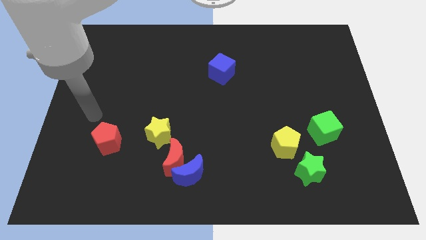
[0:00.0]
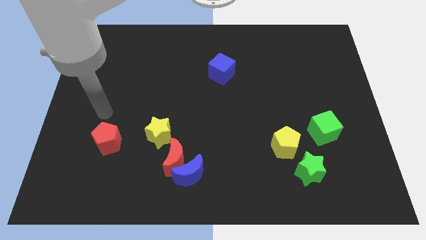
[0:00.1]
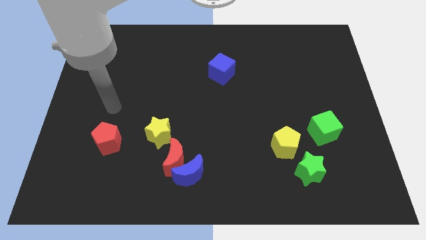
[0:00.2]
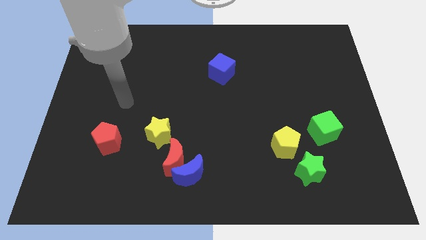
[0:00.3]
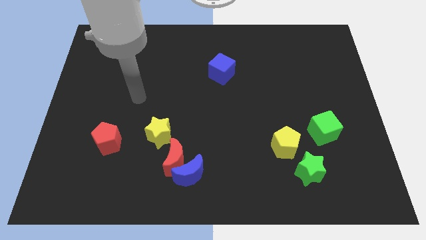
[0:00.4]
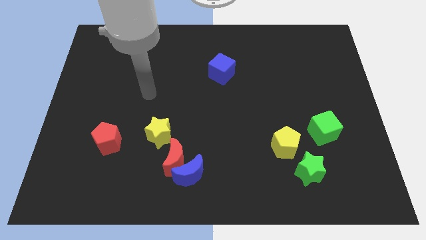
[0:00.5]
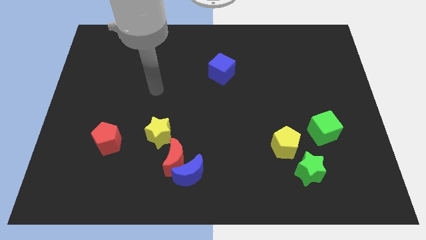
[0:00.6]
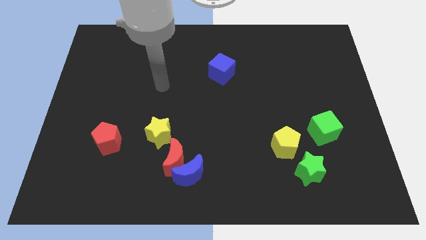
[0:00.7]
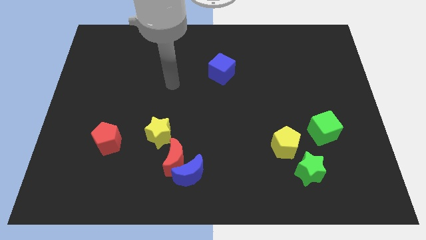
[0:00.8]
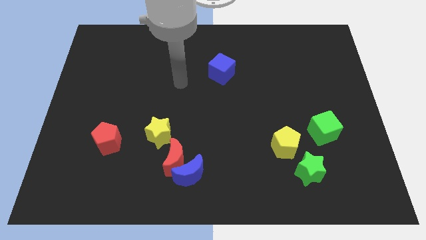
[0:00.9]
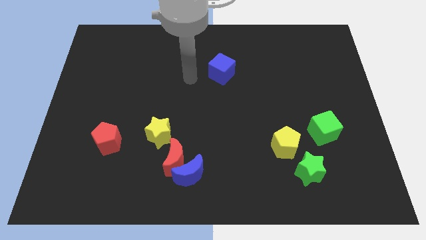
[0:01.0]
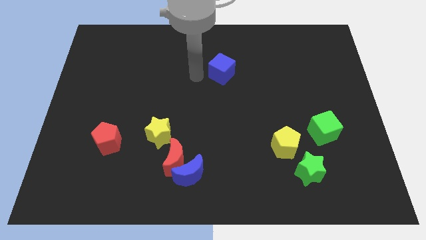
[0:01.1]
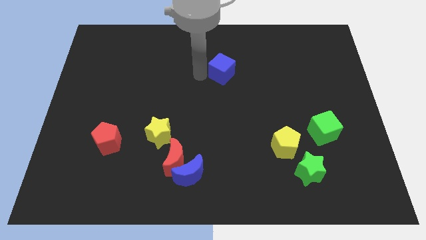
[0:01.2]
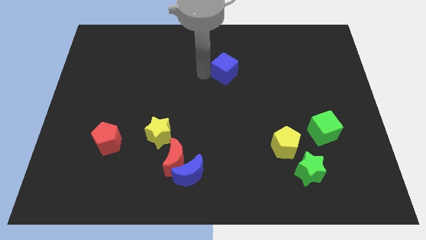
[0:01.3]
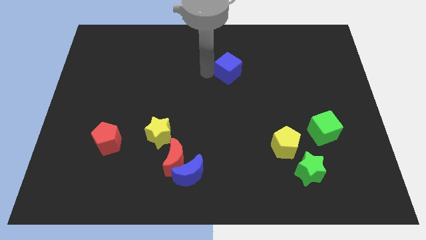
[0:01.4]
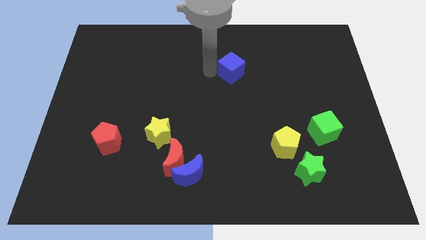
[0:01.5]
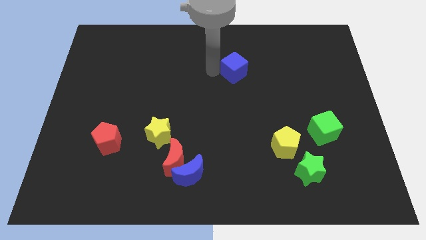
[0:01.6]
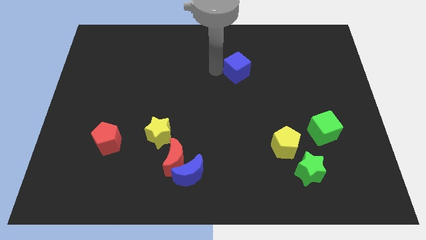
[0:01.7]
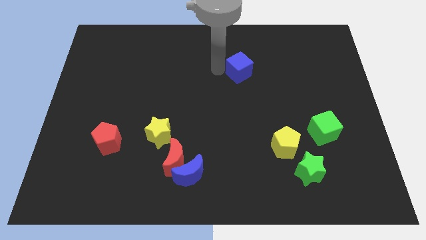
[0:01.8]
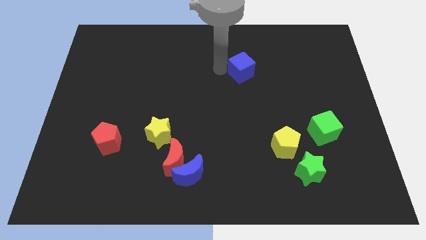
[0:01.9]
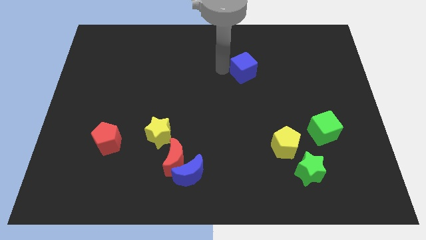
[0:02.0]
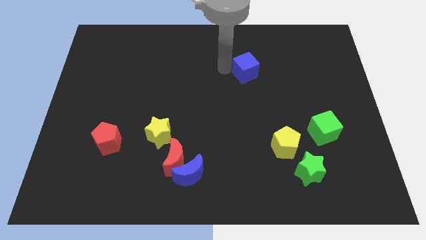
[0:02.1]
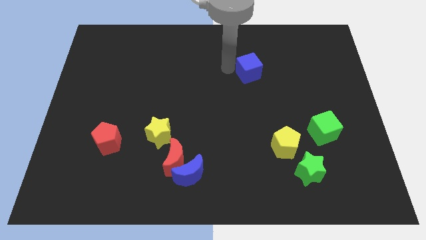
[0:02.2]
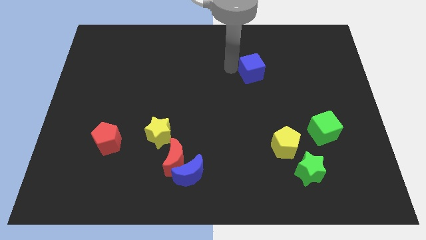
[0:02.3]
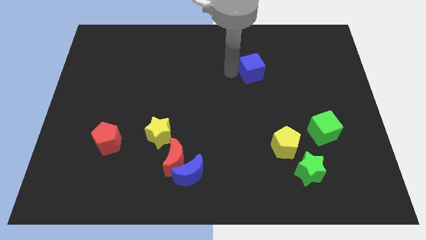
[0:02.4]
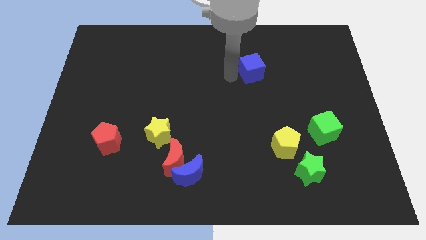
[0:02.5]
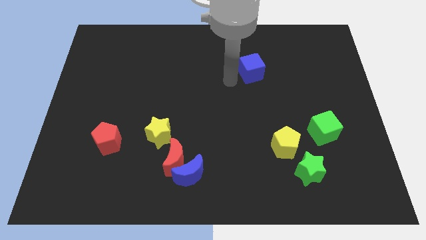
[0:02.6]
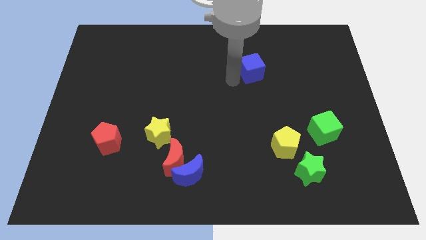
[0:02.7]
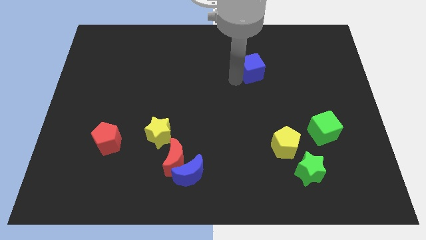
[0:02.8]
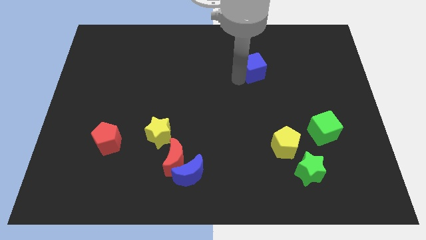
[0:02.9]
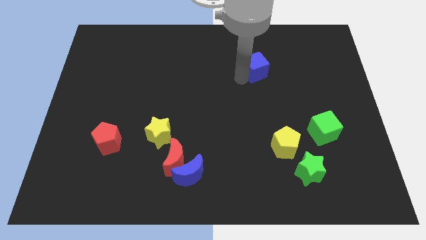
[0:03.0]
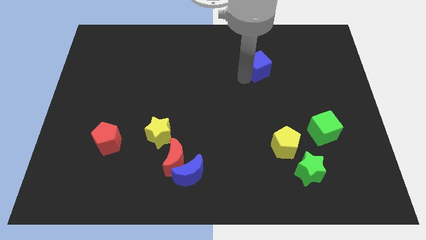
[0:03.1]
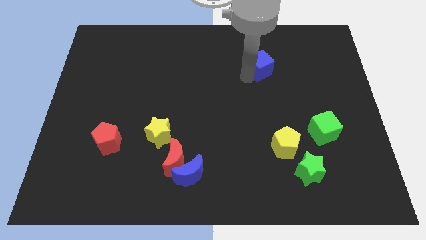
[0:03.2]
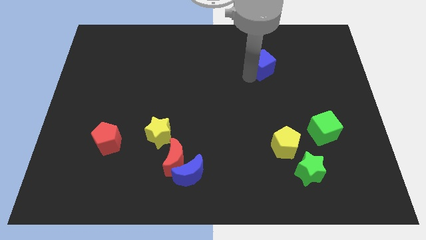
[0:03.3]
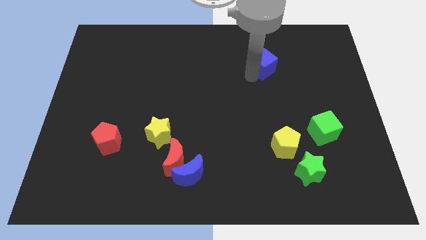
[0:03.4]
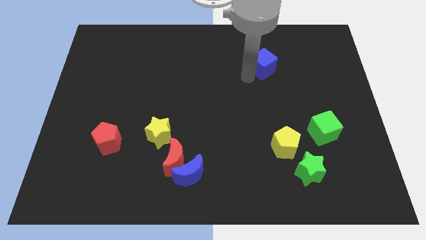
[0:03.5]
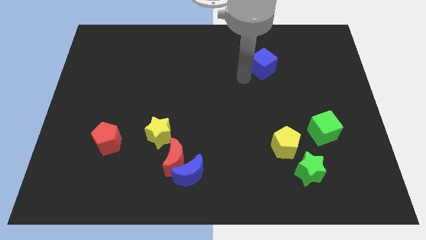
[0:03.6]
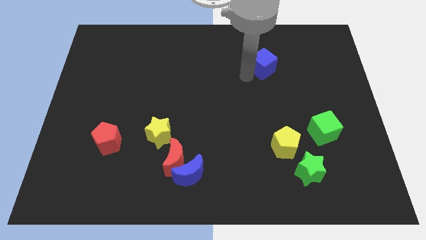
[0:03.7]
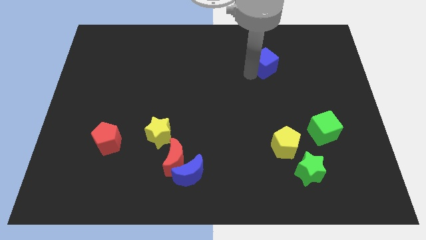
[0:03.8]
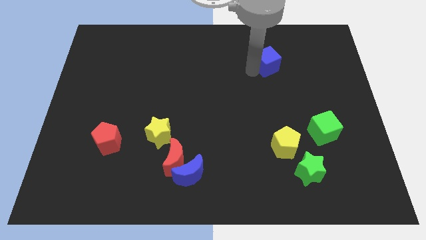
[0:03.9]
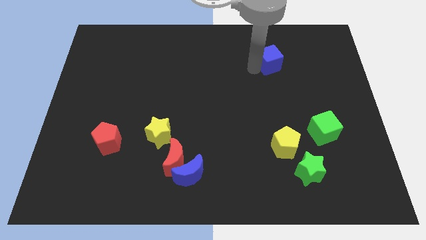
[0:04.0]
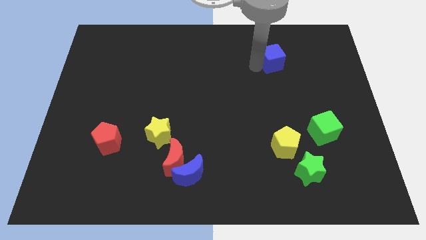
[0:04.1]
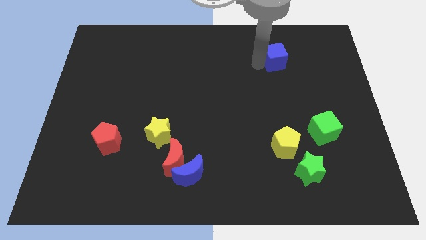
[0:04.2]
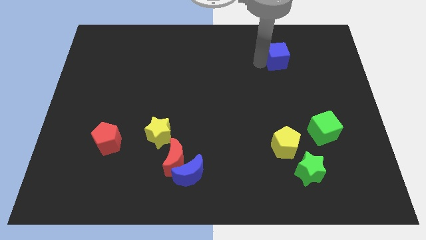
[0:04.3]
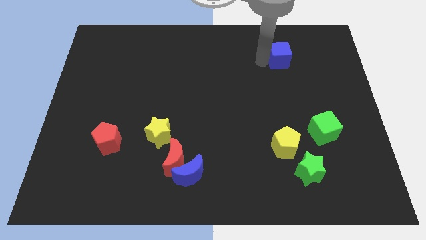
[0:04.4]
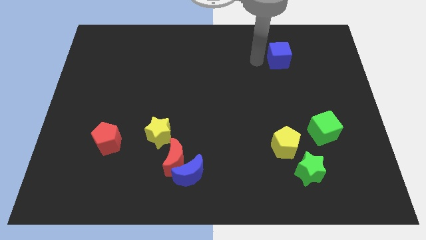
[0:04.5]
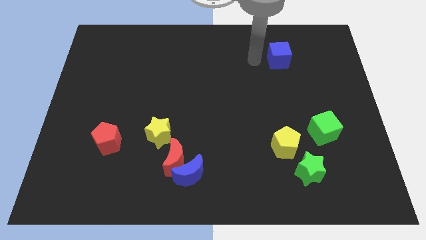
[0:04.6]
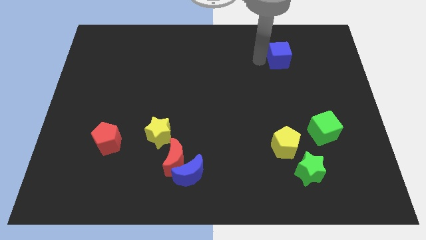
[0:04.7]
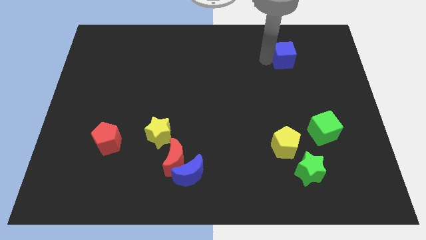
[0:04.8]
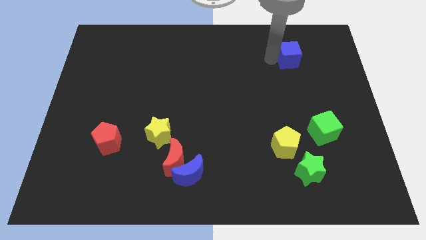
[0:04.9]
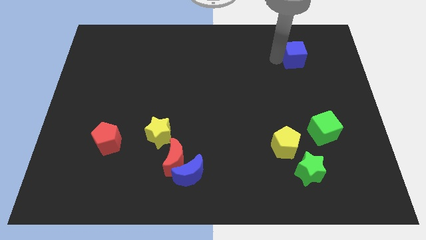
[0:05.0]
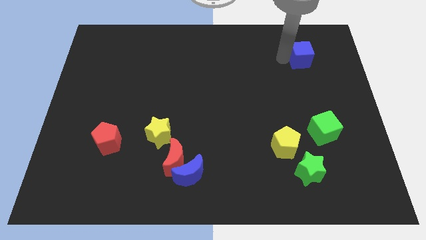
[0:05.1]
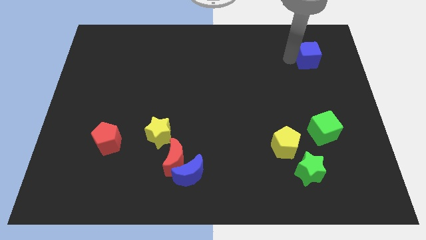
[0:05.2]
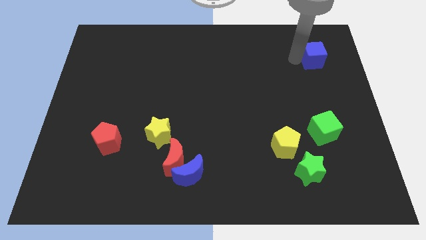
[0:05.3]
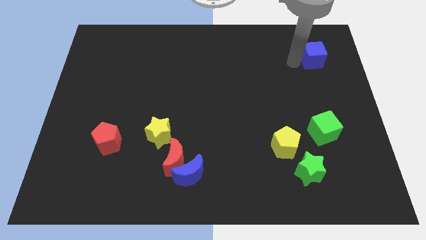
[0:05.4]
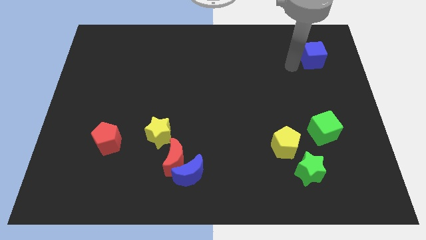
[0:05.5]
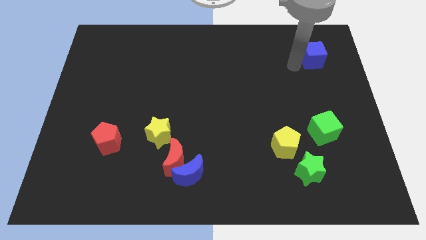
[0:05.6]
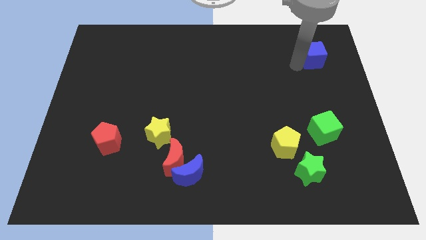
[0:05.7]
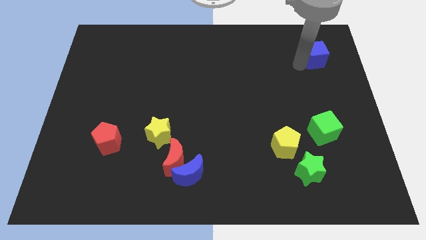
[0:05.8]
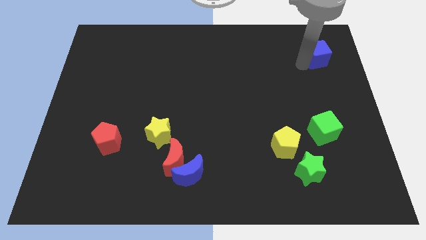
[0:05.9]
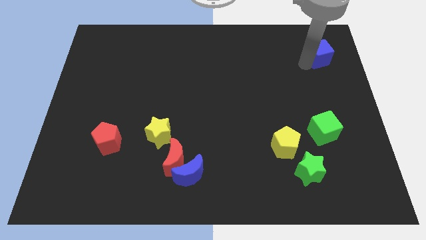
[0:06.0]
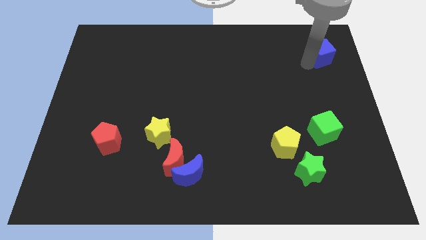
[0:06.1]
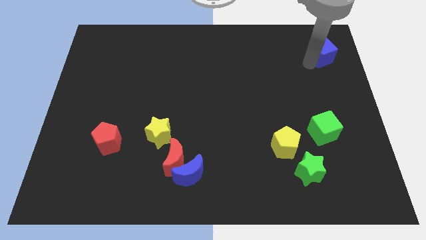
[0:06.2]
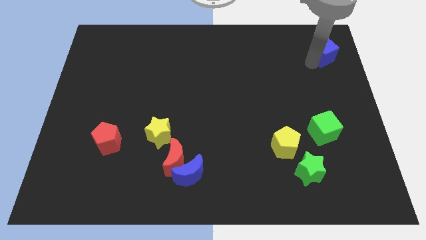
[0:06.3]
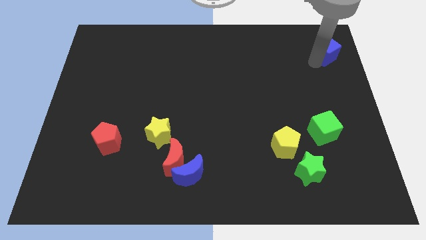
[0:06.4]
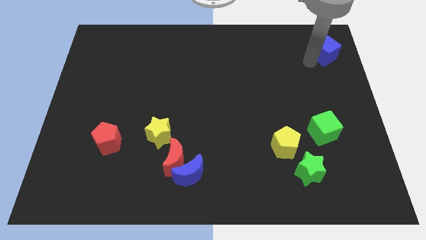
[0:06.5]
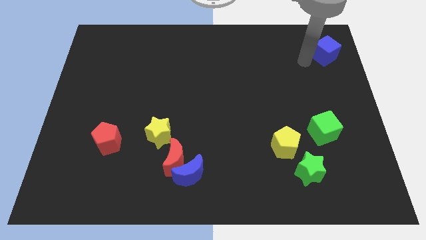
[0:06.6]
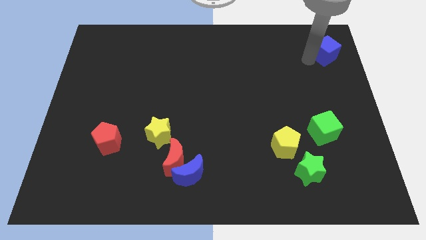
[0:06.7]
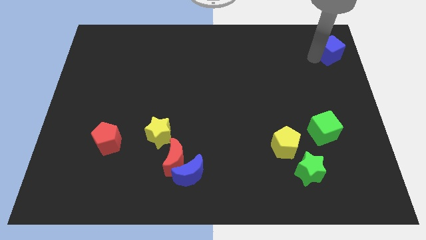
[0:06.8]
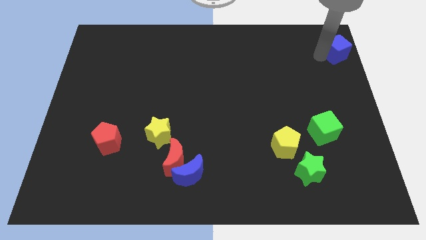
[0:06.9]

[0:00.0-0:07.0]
move the blue cube to the top right

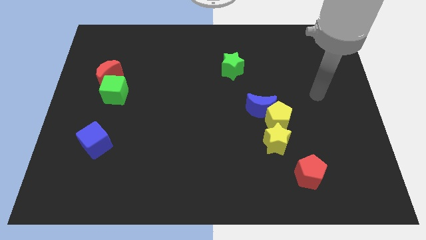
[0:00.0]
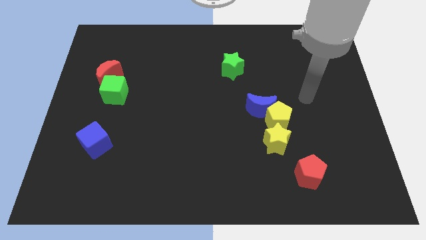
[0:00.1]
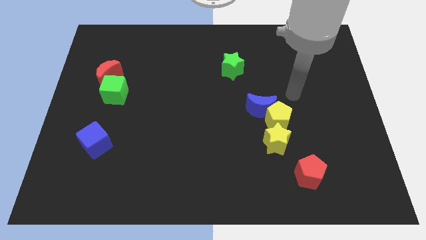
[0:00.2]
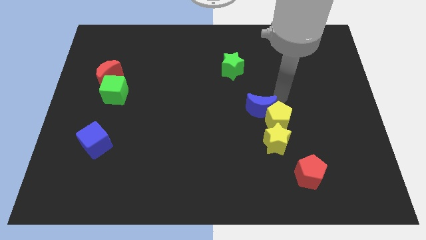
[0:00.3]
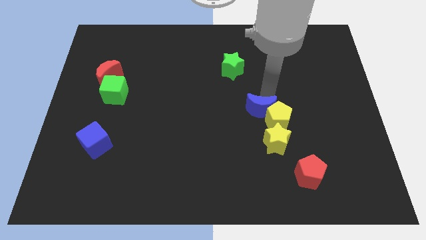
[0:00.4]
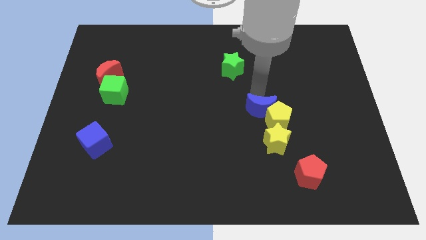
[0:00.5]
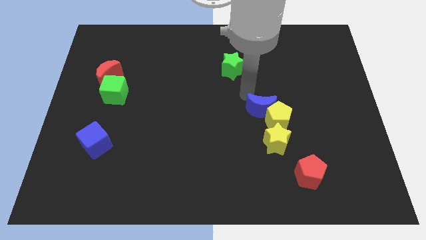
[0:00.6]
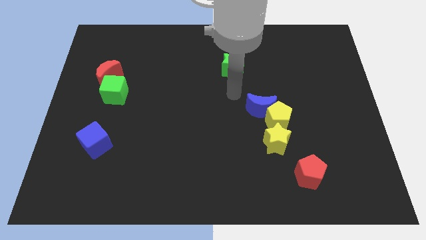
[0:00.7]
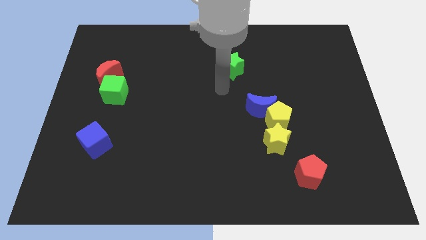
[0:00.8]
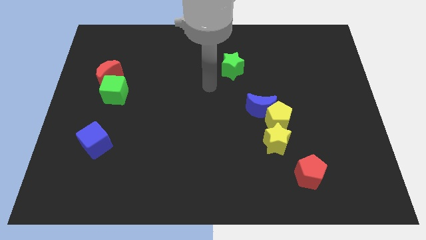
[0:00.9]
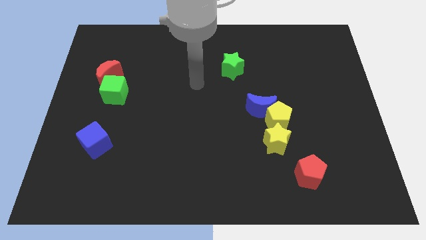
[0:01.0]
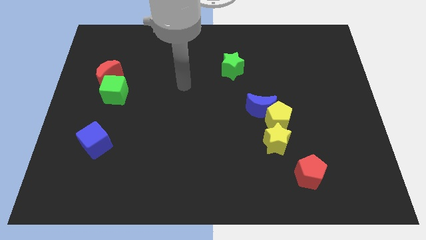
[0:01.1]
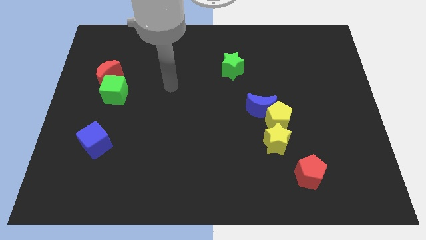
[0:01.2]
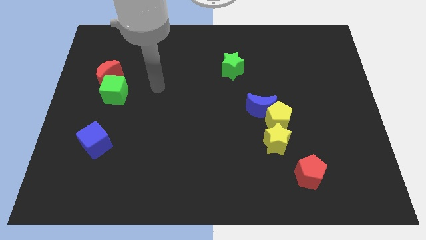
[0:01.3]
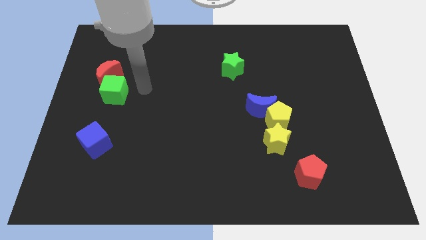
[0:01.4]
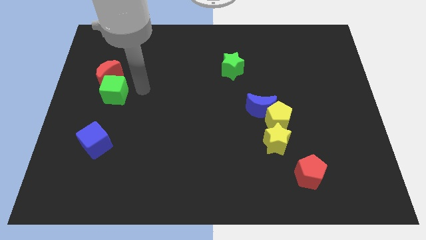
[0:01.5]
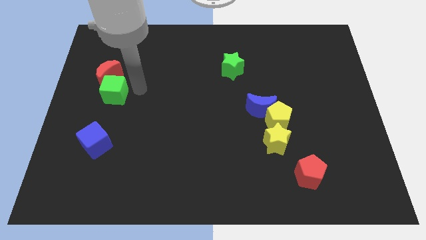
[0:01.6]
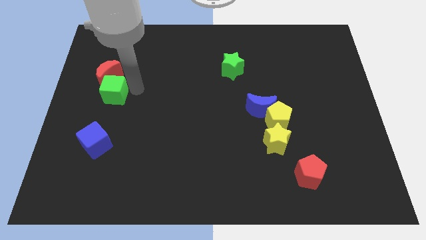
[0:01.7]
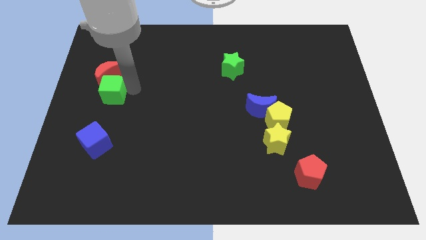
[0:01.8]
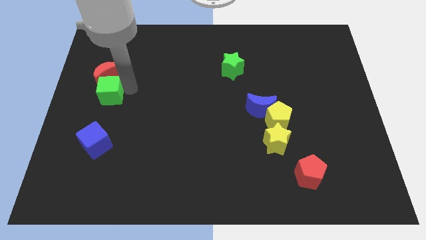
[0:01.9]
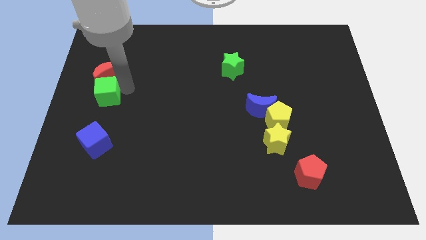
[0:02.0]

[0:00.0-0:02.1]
push the green cube to the left side of the board
